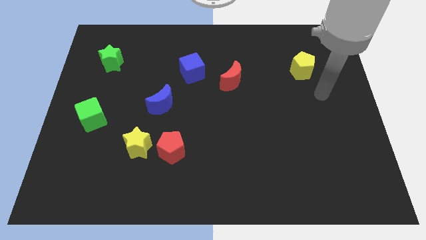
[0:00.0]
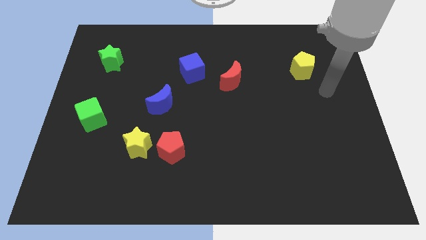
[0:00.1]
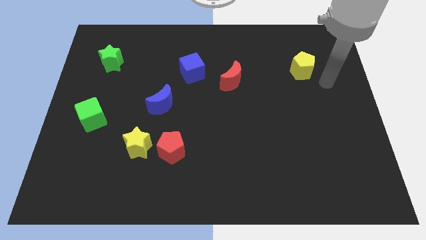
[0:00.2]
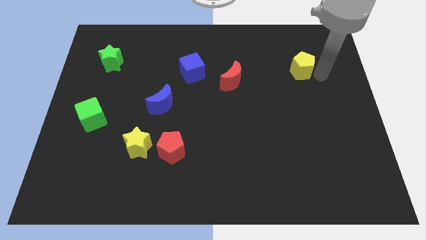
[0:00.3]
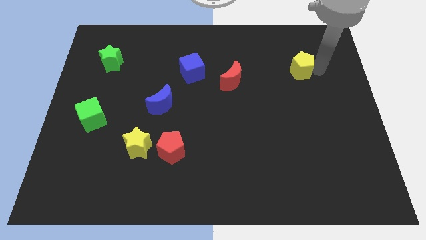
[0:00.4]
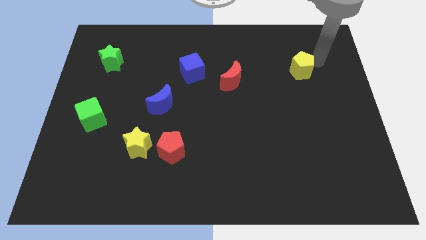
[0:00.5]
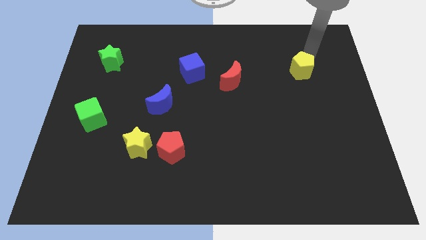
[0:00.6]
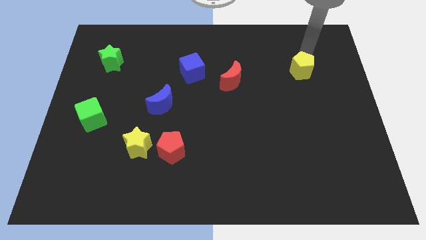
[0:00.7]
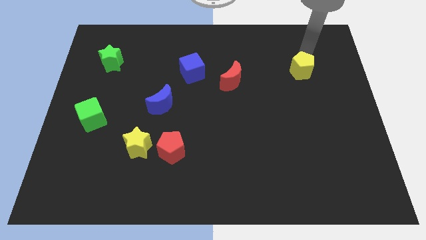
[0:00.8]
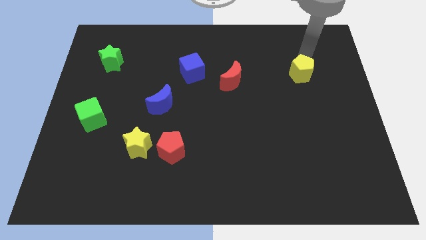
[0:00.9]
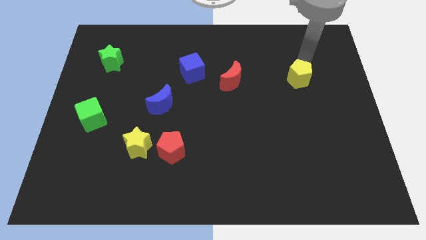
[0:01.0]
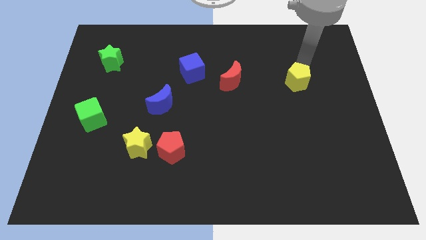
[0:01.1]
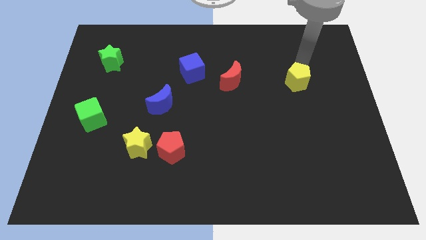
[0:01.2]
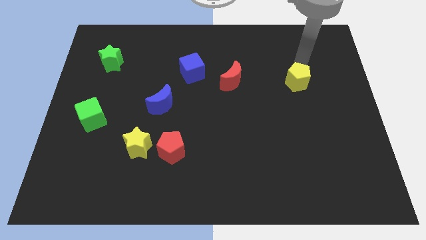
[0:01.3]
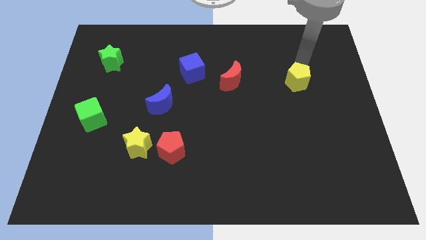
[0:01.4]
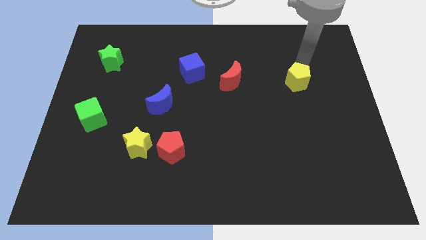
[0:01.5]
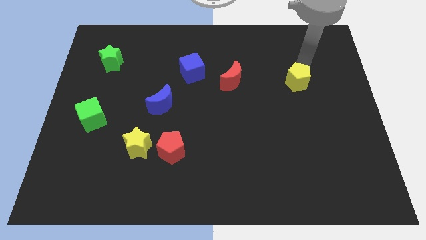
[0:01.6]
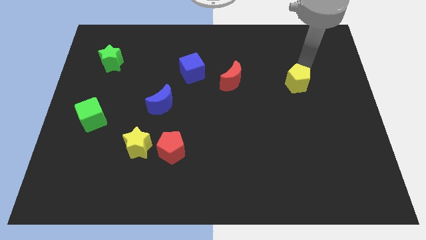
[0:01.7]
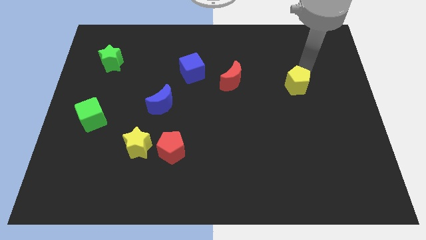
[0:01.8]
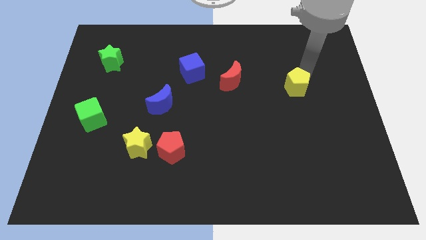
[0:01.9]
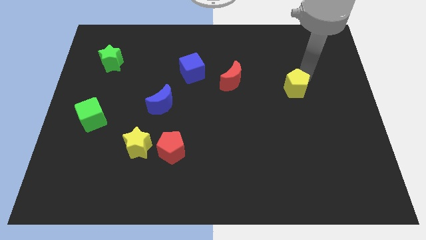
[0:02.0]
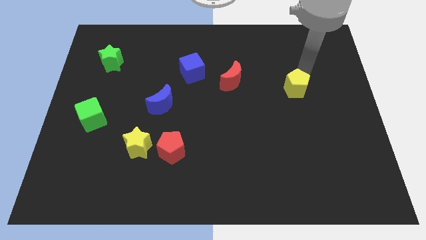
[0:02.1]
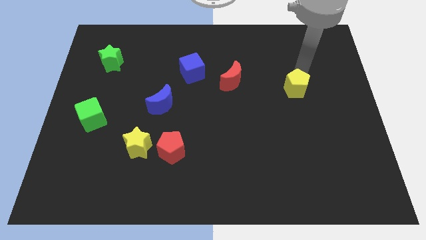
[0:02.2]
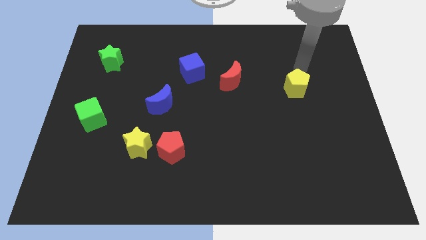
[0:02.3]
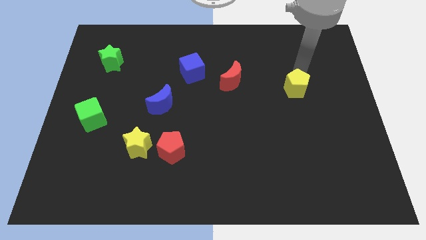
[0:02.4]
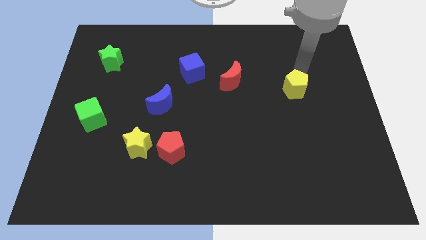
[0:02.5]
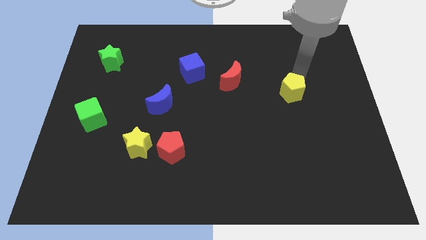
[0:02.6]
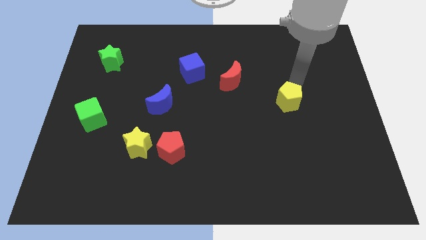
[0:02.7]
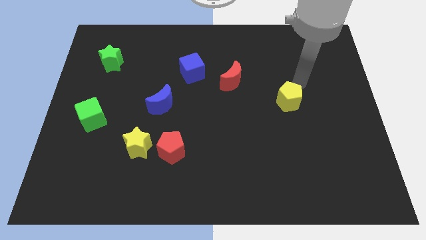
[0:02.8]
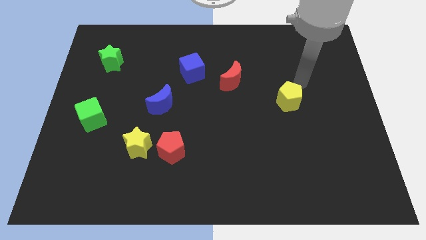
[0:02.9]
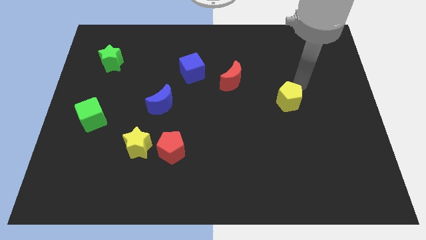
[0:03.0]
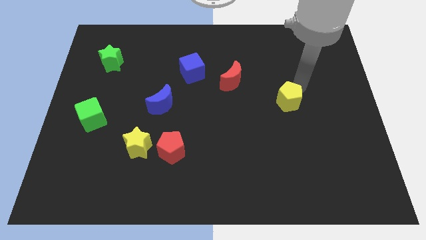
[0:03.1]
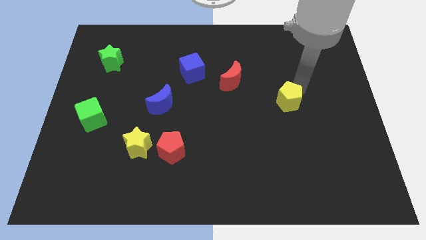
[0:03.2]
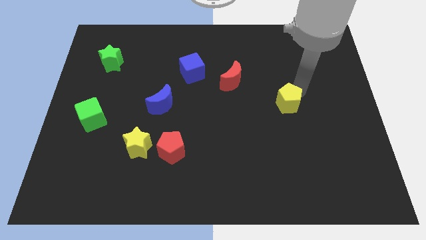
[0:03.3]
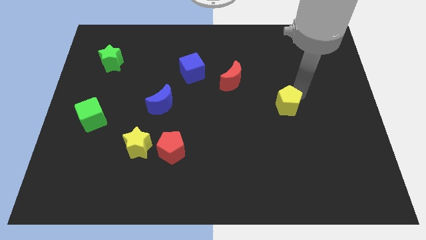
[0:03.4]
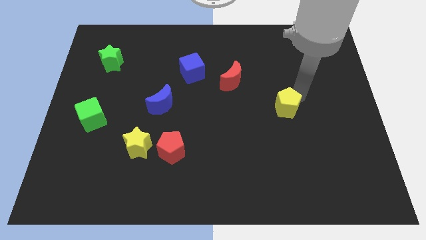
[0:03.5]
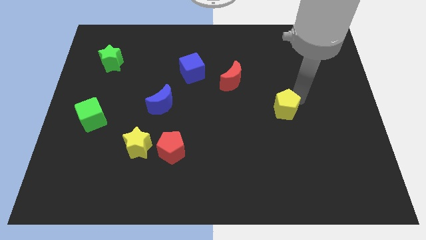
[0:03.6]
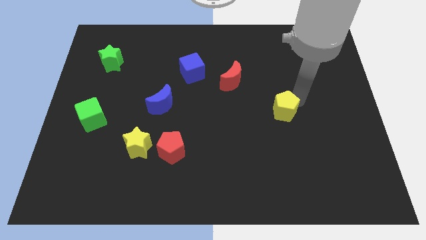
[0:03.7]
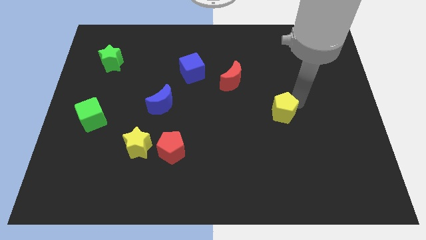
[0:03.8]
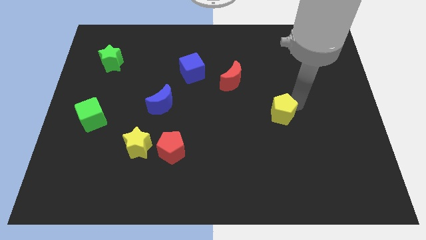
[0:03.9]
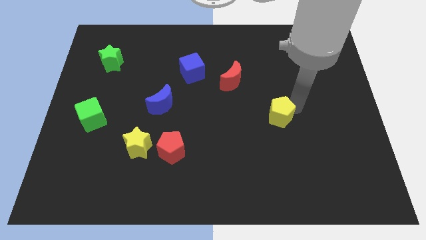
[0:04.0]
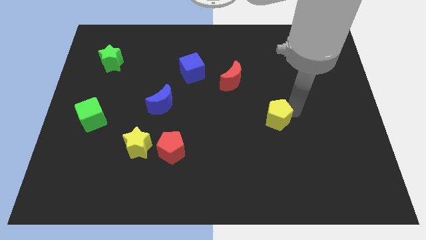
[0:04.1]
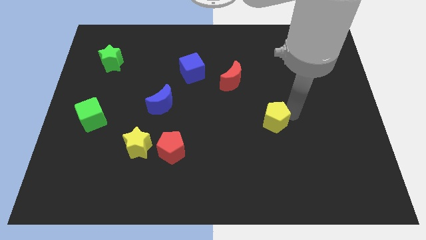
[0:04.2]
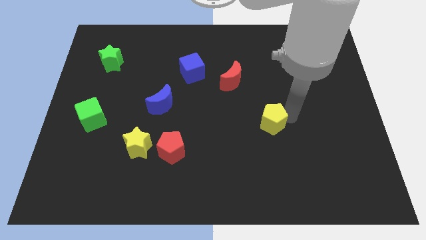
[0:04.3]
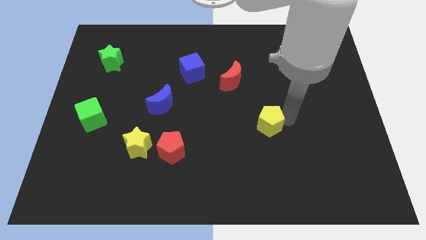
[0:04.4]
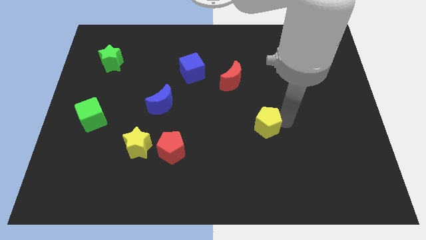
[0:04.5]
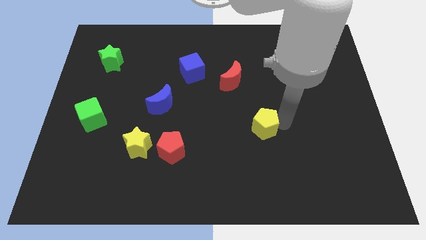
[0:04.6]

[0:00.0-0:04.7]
slide the yellow pentagon down and to the left diagonally

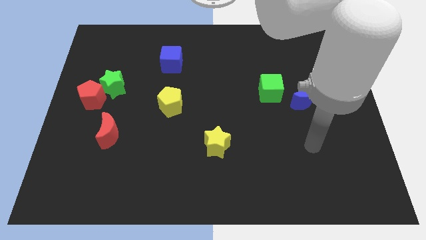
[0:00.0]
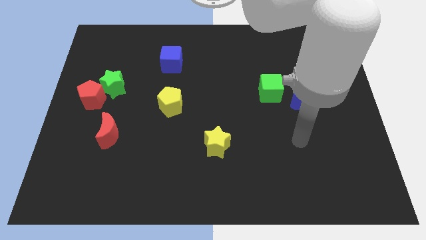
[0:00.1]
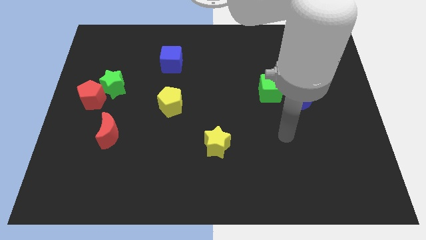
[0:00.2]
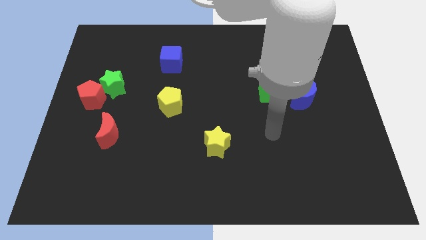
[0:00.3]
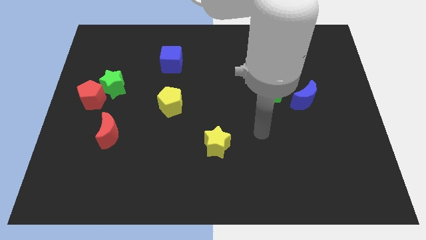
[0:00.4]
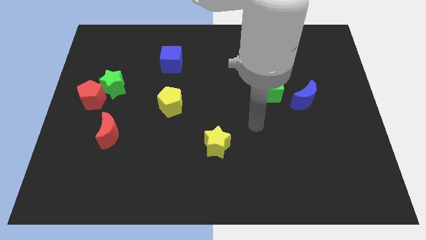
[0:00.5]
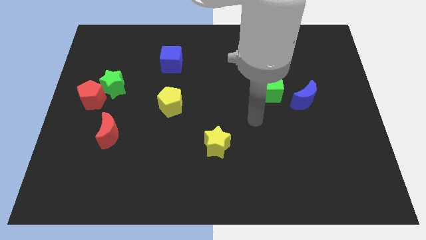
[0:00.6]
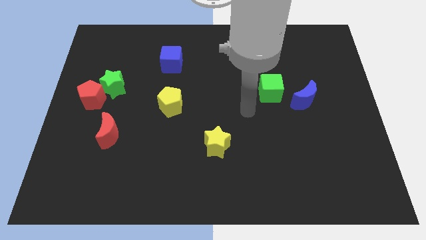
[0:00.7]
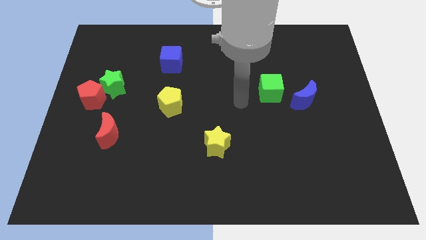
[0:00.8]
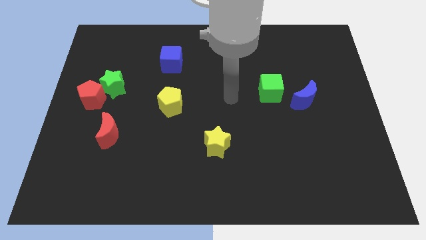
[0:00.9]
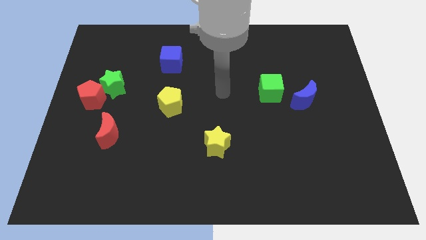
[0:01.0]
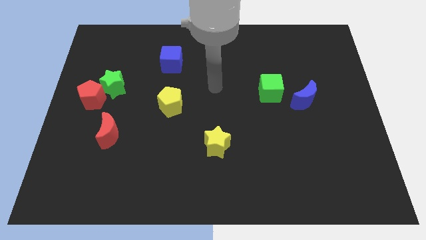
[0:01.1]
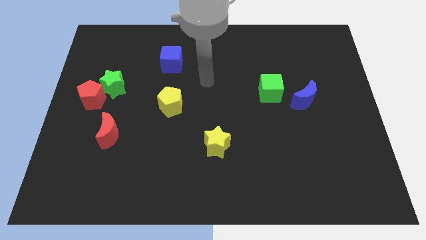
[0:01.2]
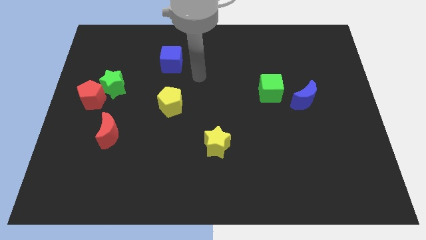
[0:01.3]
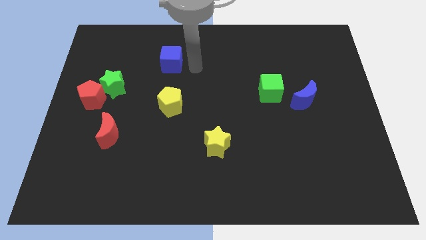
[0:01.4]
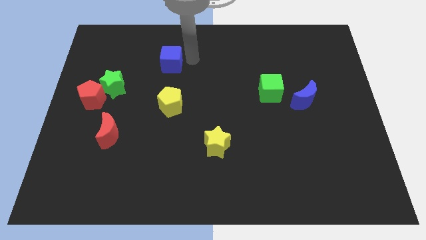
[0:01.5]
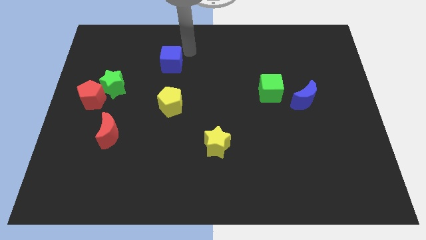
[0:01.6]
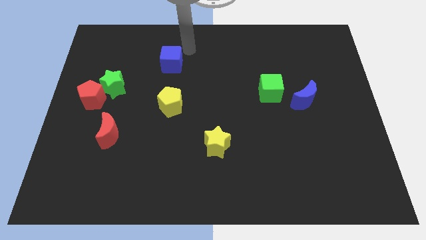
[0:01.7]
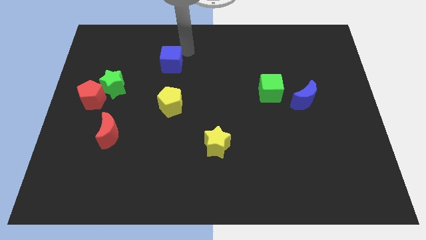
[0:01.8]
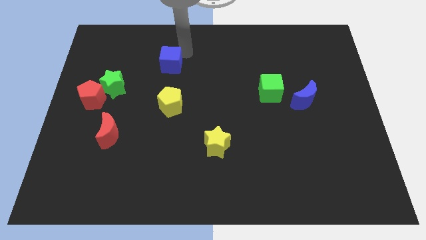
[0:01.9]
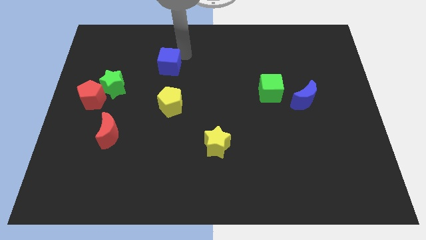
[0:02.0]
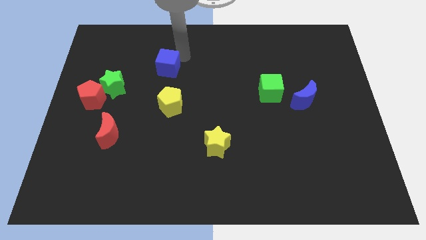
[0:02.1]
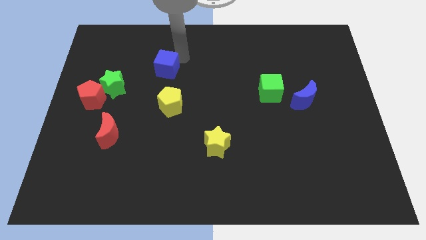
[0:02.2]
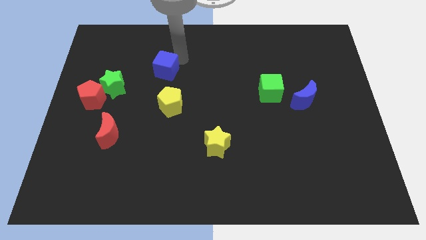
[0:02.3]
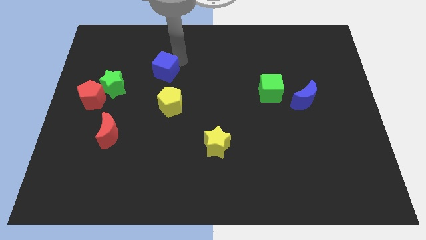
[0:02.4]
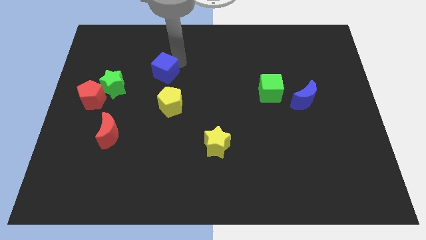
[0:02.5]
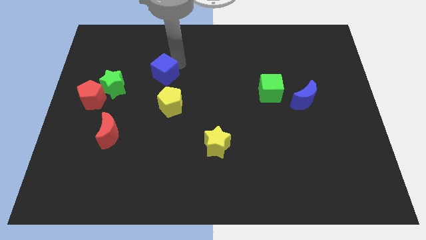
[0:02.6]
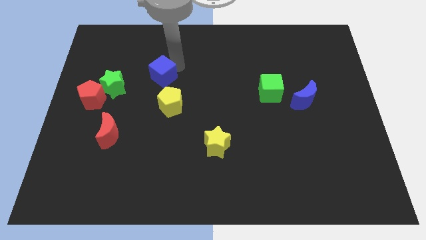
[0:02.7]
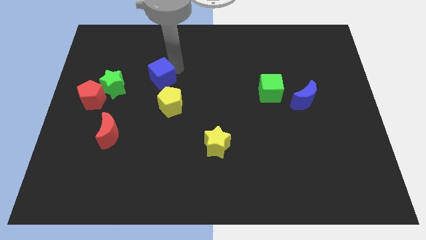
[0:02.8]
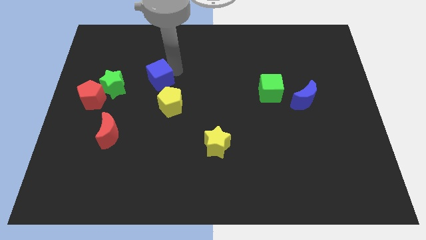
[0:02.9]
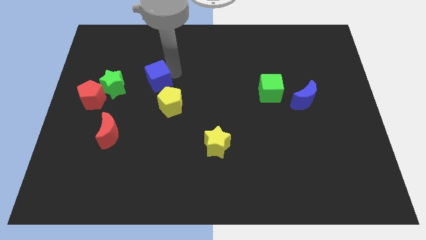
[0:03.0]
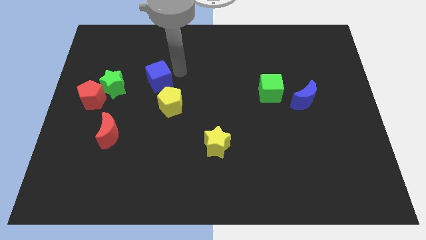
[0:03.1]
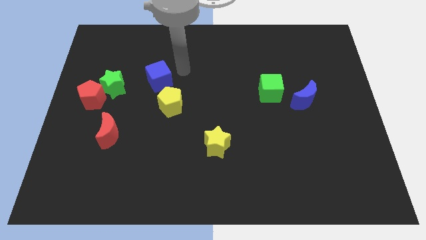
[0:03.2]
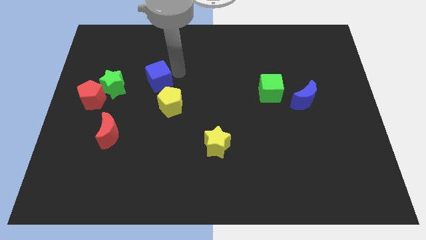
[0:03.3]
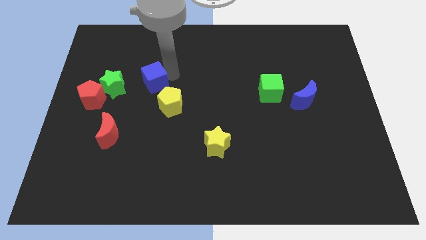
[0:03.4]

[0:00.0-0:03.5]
slide the blue cube downwards and then to the left a little bit
